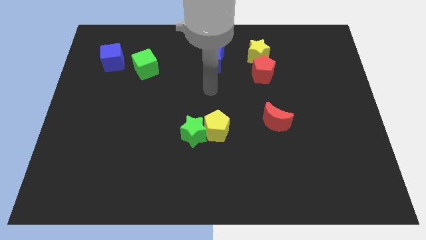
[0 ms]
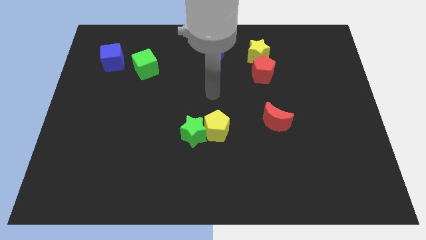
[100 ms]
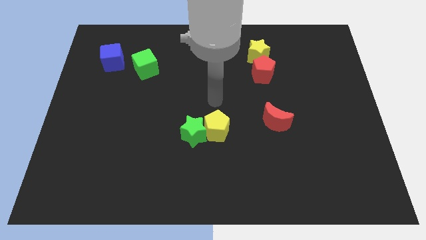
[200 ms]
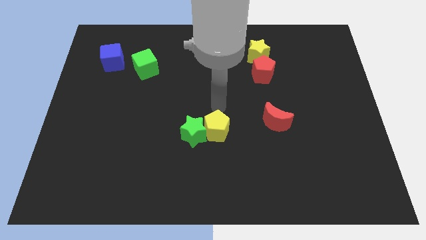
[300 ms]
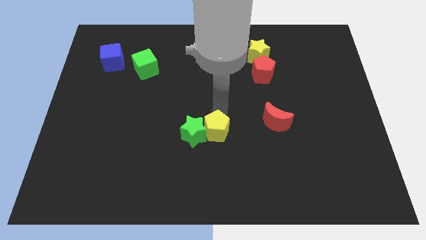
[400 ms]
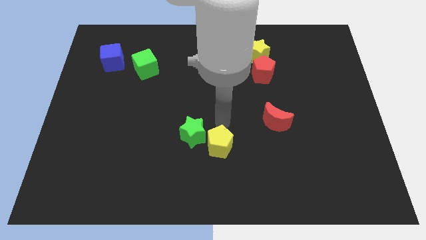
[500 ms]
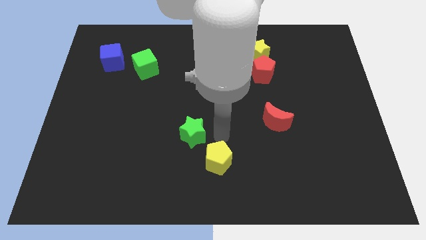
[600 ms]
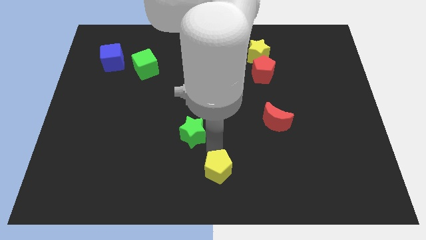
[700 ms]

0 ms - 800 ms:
pull the green star apart from the yellow pentagon

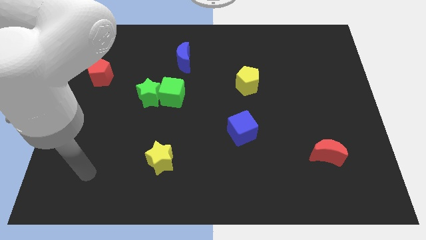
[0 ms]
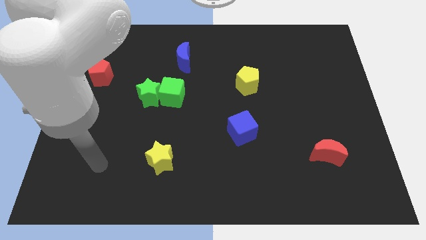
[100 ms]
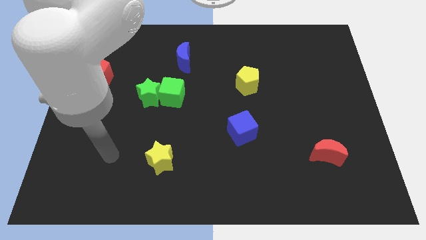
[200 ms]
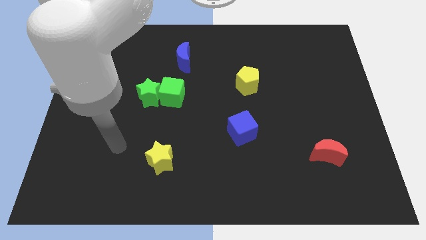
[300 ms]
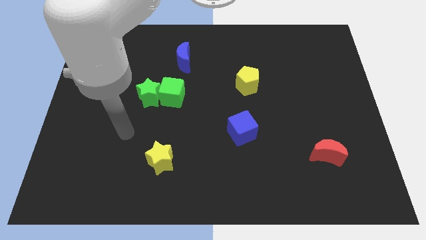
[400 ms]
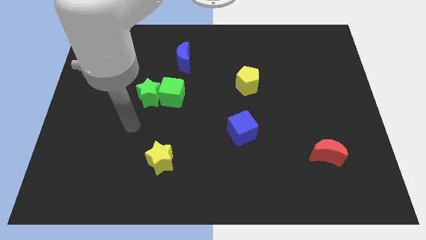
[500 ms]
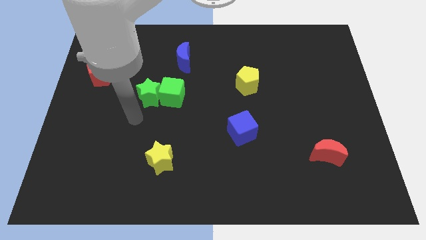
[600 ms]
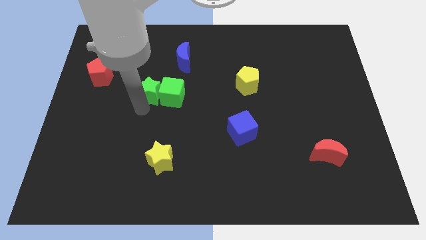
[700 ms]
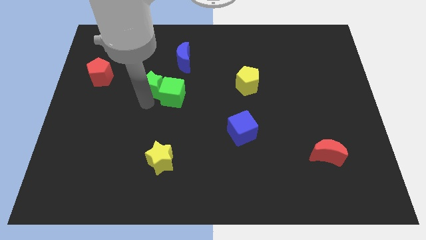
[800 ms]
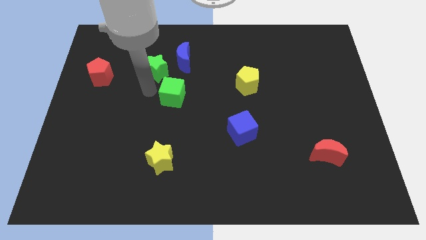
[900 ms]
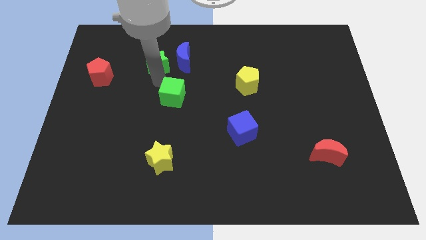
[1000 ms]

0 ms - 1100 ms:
pull the green cube apart from the green star

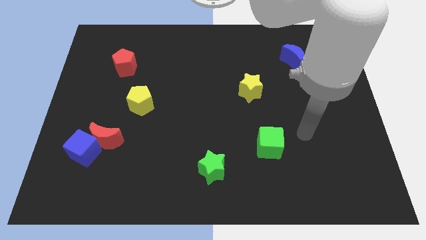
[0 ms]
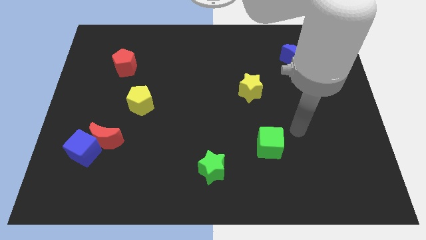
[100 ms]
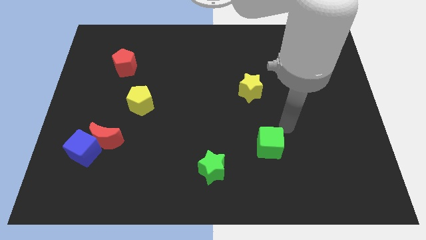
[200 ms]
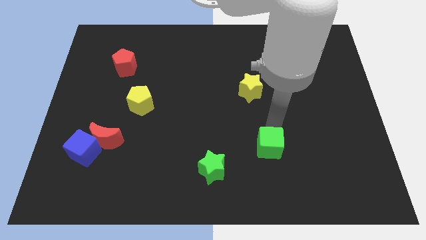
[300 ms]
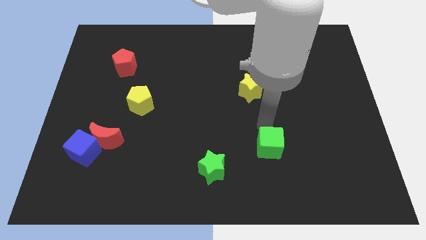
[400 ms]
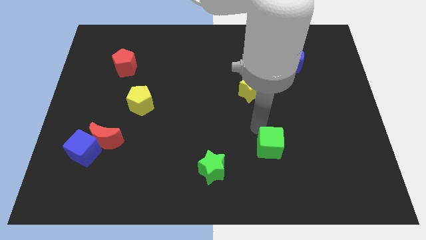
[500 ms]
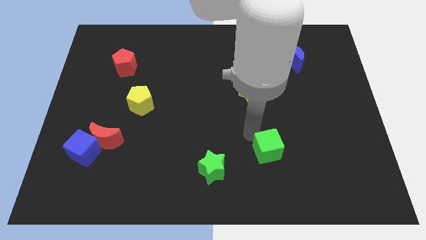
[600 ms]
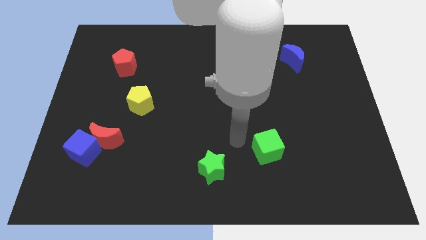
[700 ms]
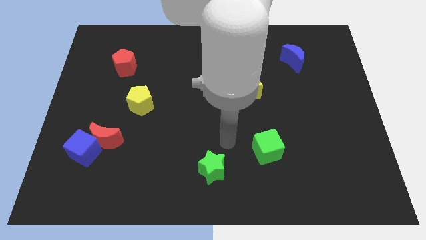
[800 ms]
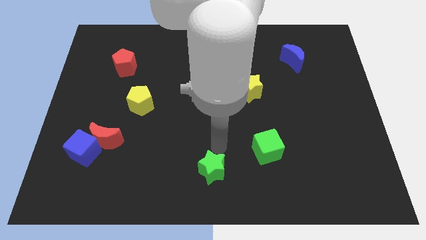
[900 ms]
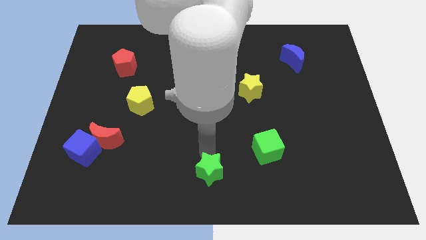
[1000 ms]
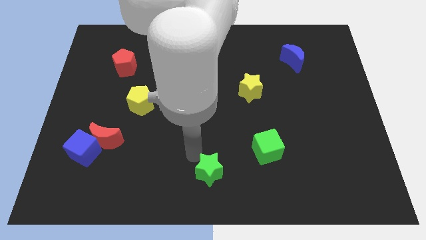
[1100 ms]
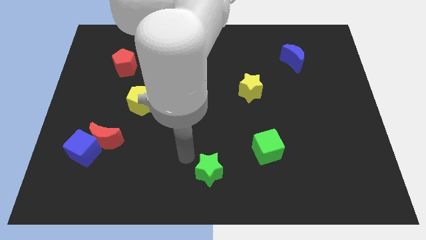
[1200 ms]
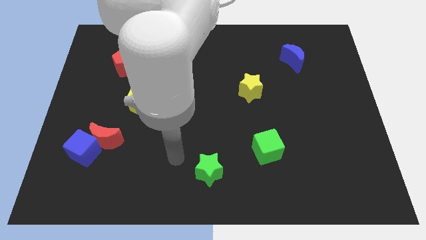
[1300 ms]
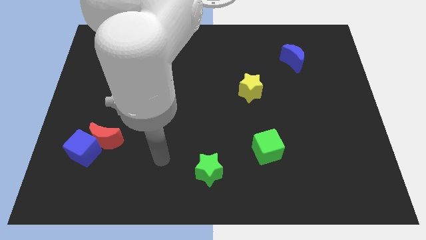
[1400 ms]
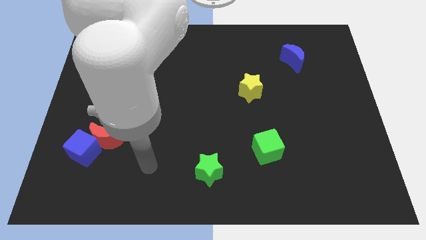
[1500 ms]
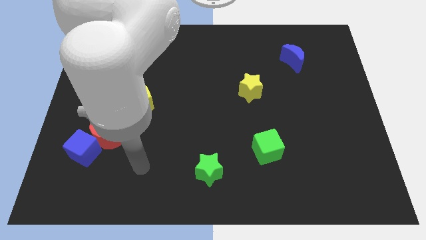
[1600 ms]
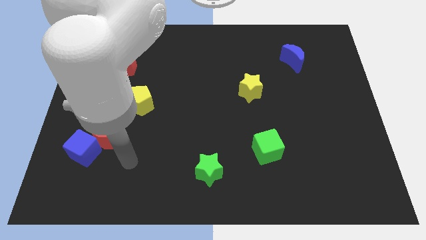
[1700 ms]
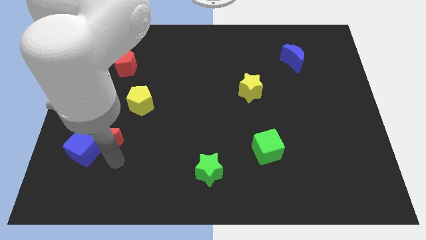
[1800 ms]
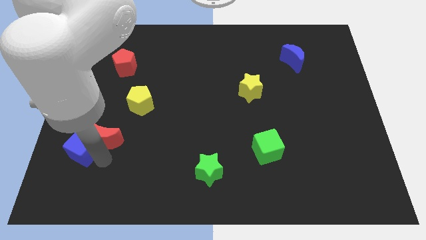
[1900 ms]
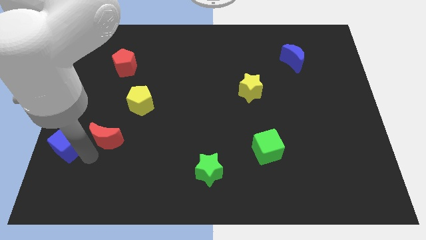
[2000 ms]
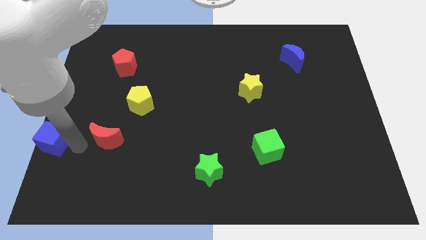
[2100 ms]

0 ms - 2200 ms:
separate the red moon from the blue cube

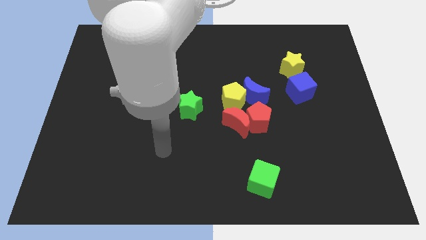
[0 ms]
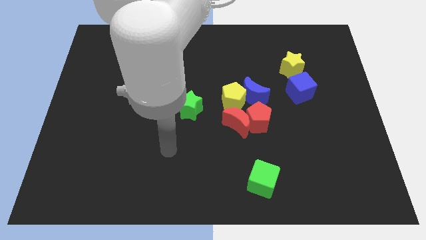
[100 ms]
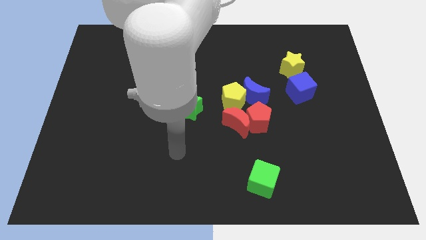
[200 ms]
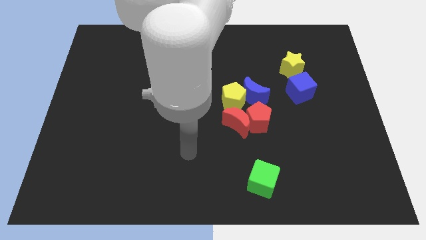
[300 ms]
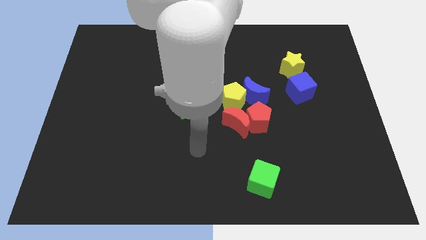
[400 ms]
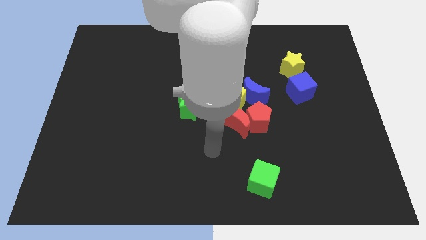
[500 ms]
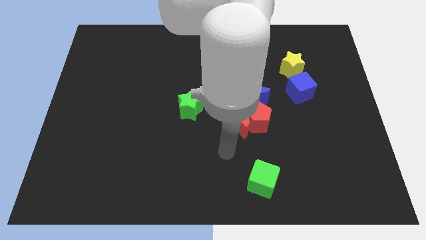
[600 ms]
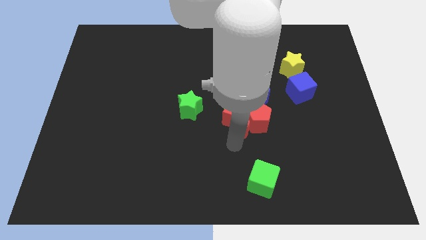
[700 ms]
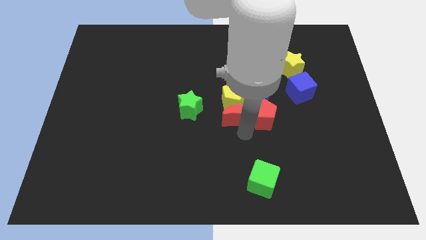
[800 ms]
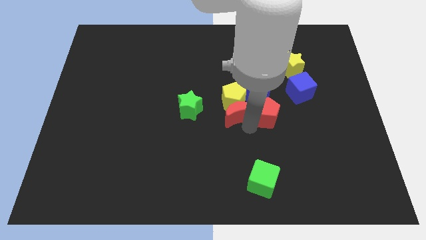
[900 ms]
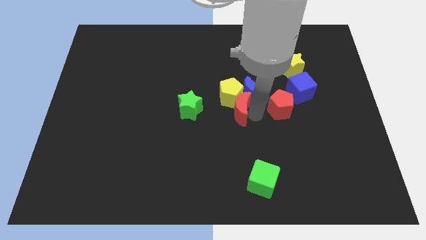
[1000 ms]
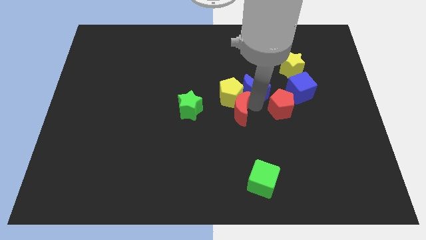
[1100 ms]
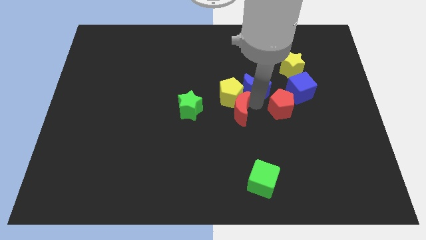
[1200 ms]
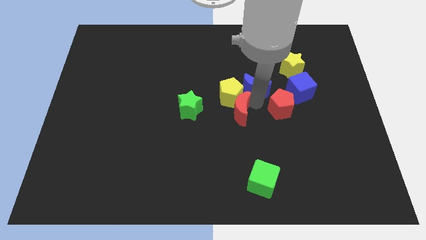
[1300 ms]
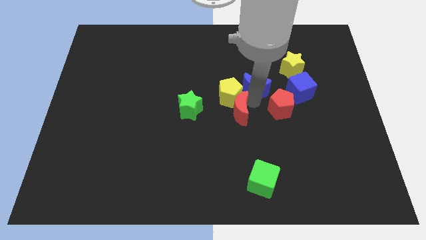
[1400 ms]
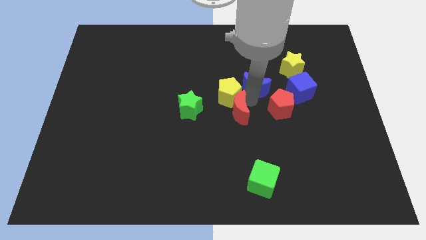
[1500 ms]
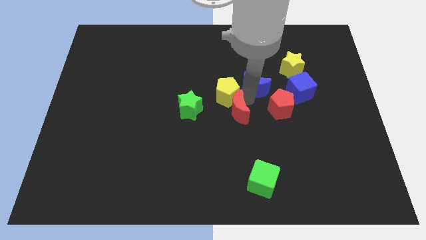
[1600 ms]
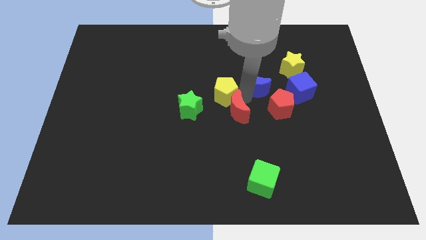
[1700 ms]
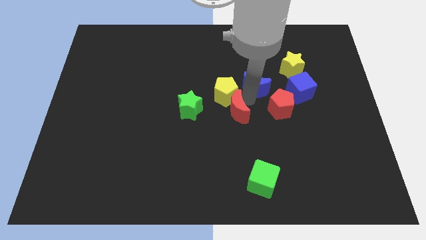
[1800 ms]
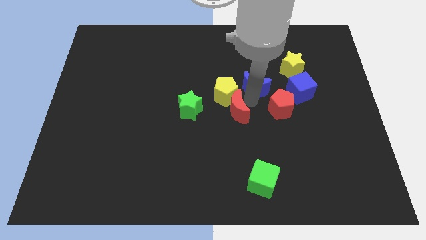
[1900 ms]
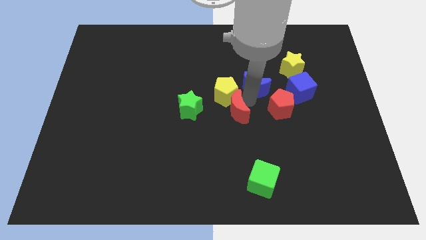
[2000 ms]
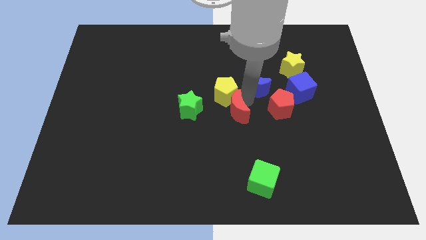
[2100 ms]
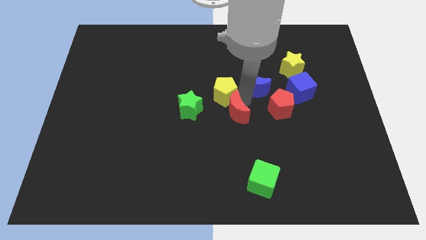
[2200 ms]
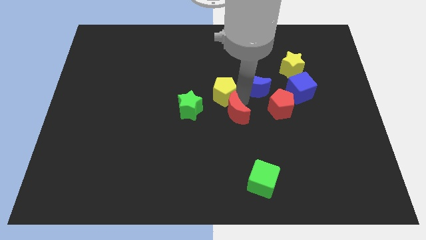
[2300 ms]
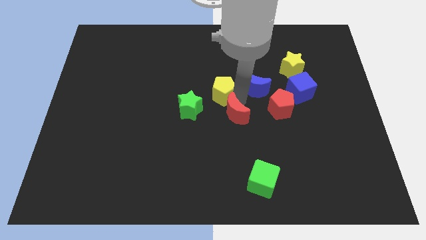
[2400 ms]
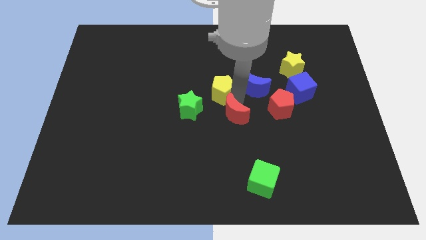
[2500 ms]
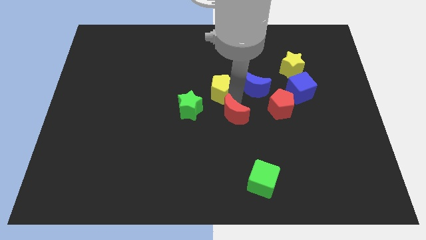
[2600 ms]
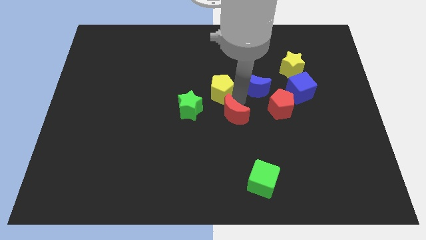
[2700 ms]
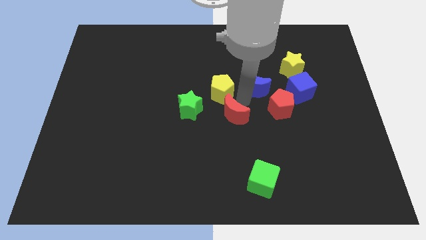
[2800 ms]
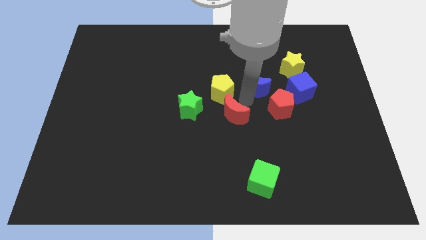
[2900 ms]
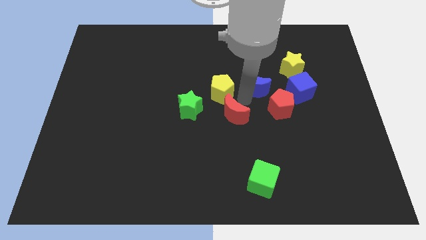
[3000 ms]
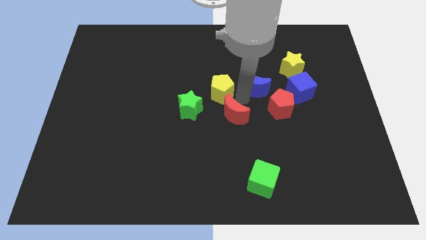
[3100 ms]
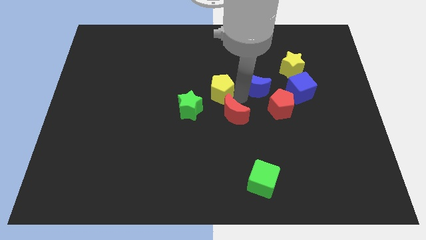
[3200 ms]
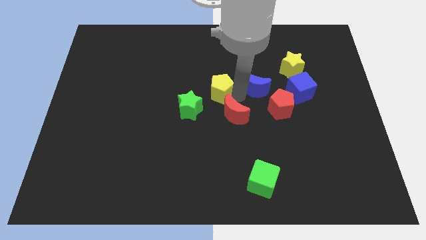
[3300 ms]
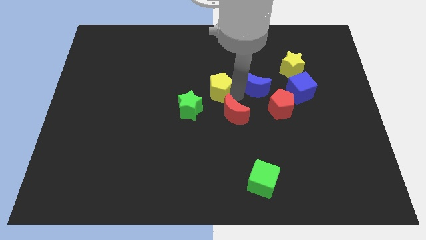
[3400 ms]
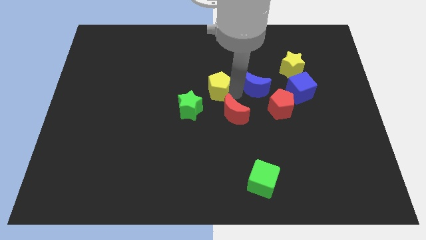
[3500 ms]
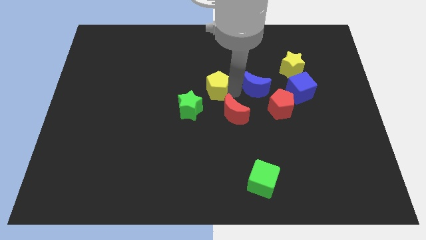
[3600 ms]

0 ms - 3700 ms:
pull the yellow pentagon apart from the blue moon, red moon, and red pentagon

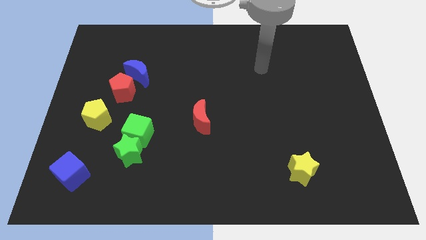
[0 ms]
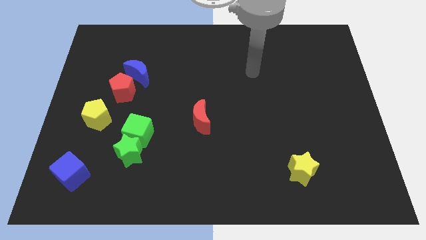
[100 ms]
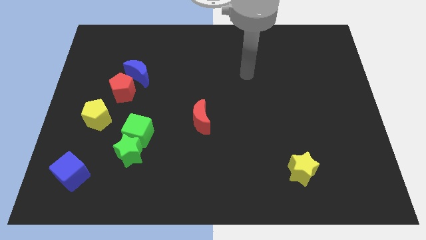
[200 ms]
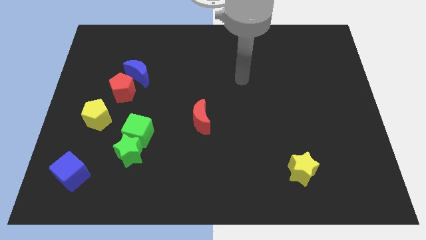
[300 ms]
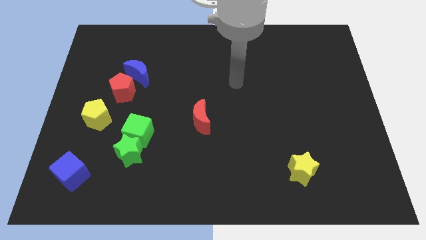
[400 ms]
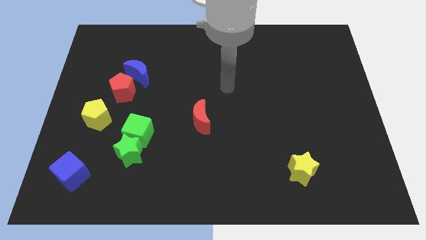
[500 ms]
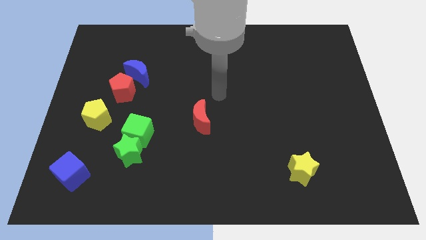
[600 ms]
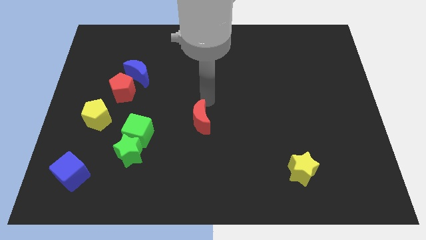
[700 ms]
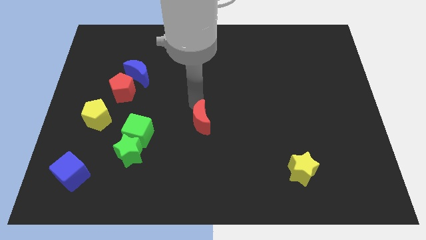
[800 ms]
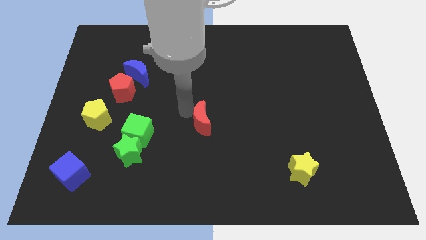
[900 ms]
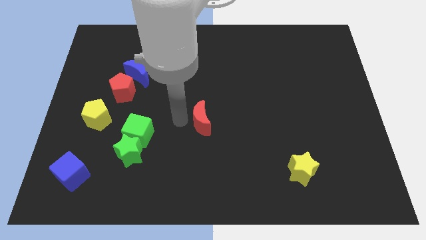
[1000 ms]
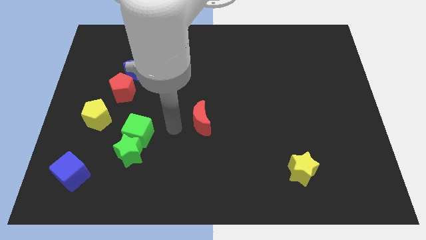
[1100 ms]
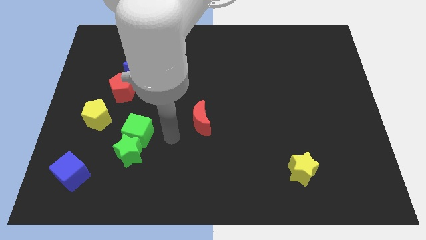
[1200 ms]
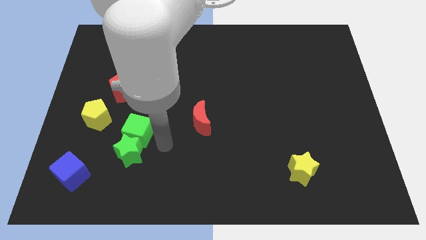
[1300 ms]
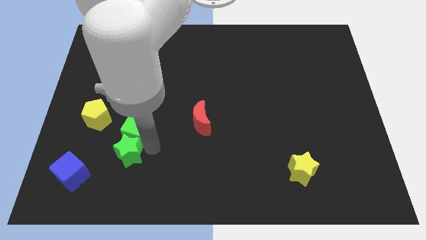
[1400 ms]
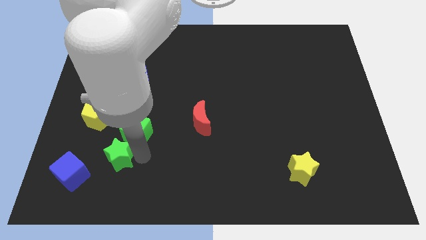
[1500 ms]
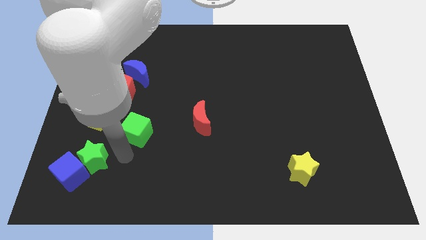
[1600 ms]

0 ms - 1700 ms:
separate the green cube from the green star

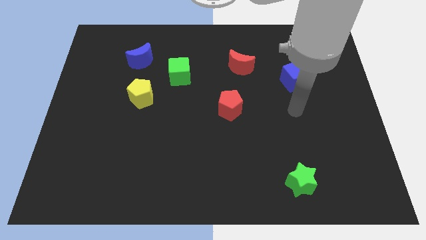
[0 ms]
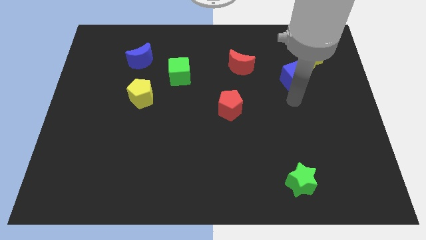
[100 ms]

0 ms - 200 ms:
pull the blue cube apart from the yellow star
